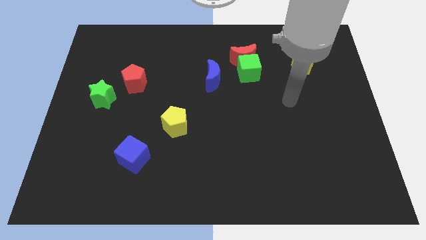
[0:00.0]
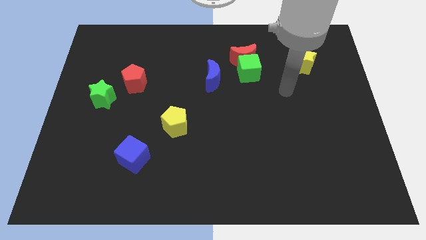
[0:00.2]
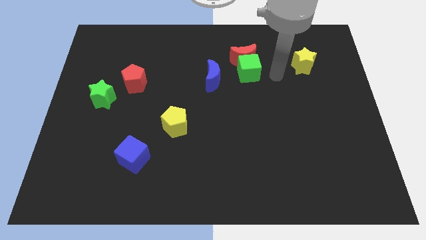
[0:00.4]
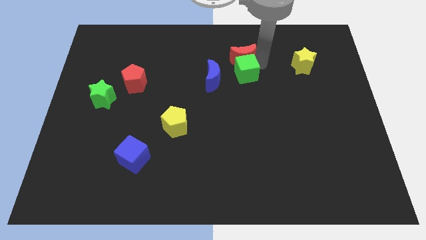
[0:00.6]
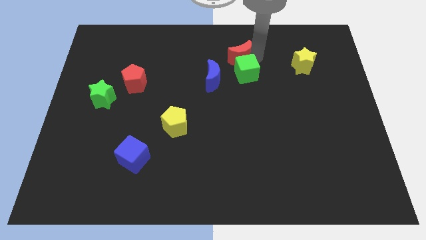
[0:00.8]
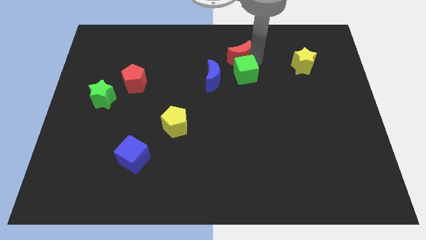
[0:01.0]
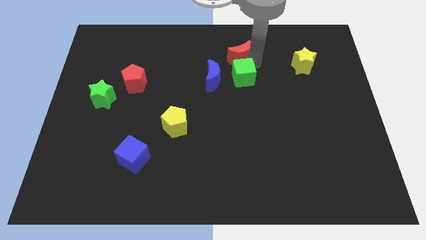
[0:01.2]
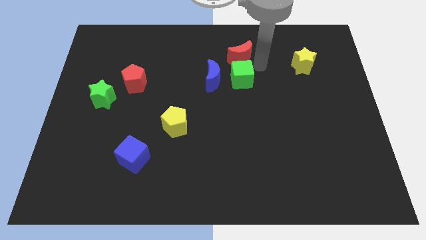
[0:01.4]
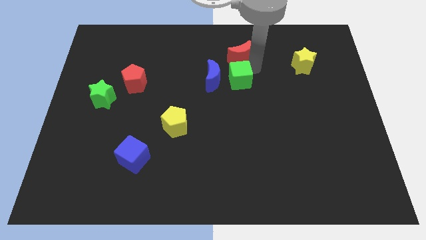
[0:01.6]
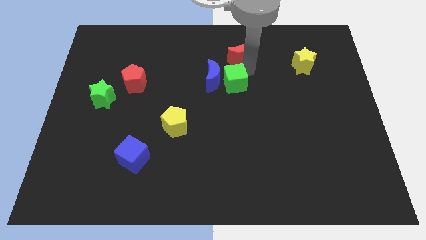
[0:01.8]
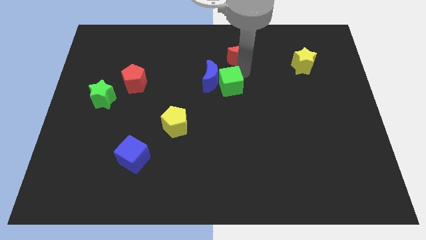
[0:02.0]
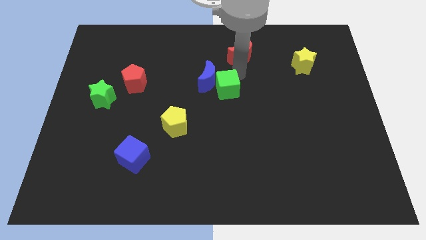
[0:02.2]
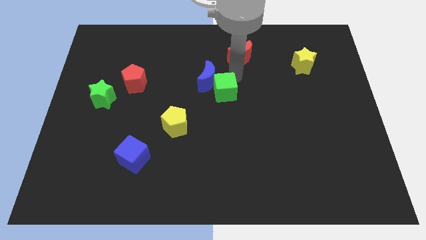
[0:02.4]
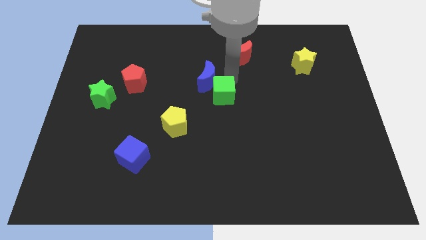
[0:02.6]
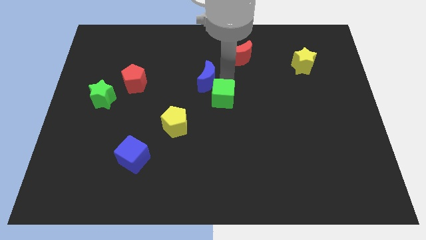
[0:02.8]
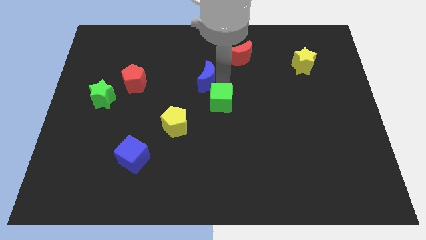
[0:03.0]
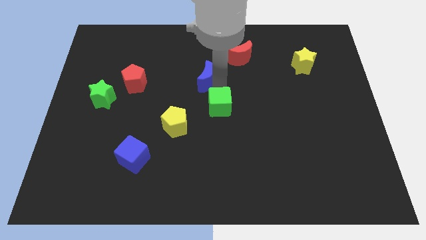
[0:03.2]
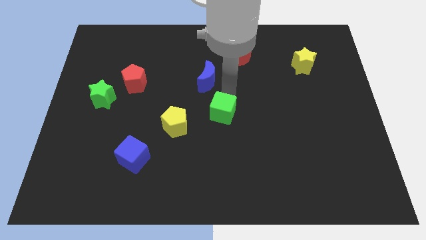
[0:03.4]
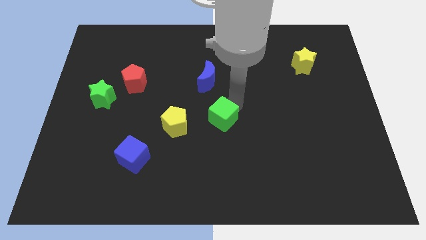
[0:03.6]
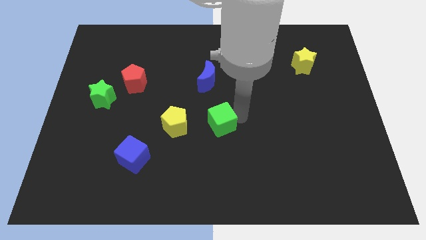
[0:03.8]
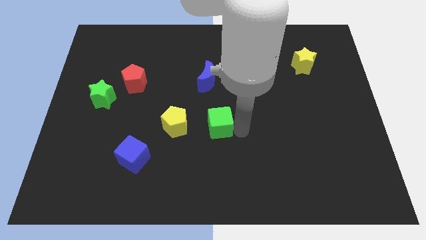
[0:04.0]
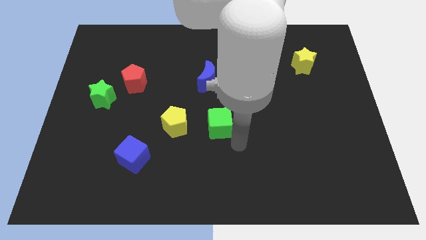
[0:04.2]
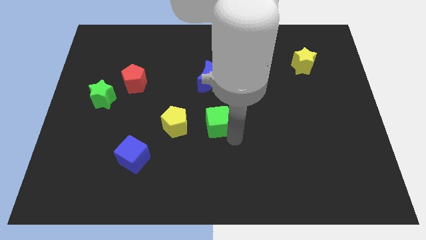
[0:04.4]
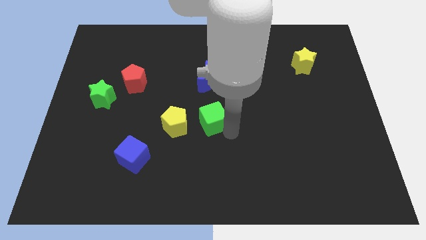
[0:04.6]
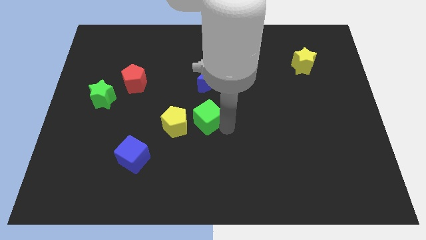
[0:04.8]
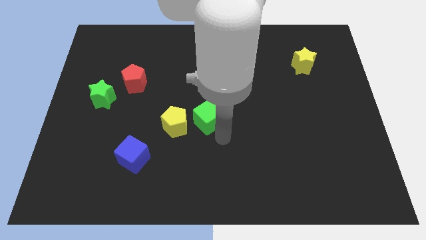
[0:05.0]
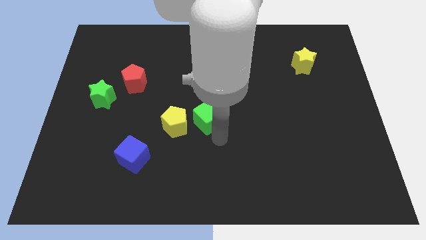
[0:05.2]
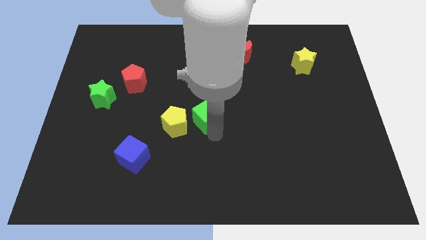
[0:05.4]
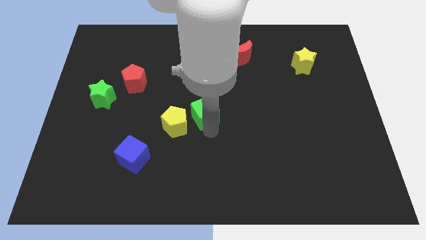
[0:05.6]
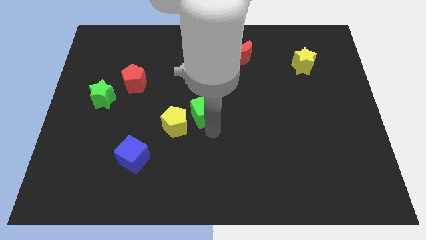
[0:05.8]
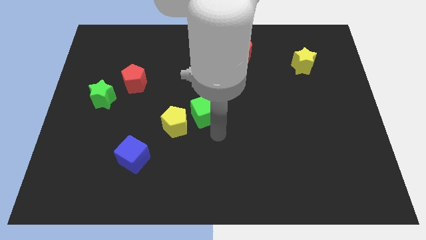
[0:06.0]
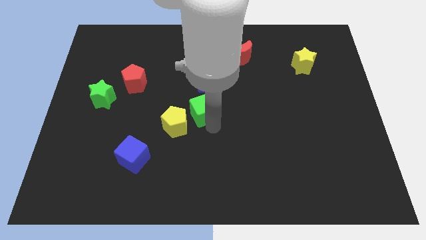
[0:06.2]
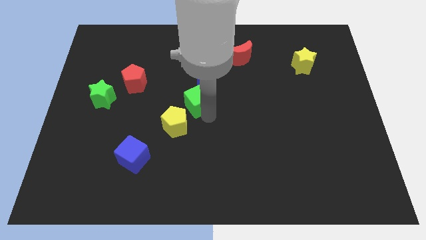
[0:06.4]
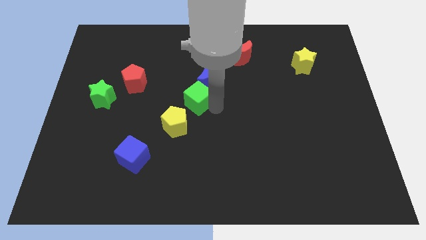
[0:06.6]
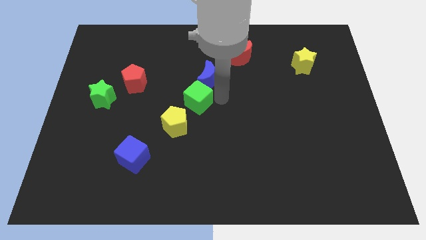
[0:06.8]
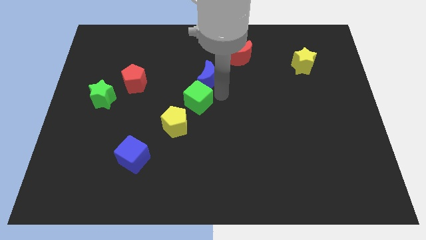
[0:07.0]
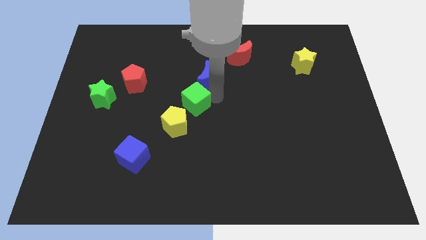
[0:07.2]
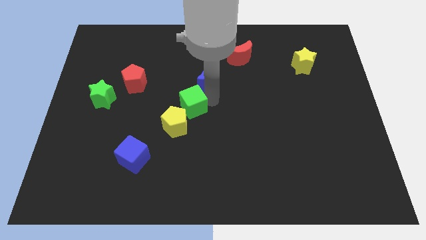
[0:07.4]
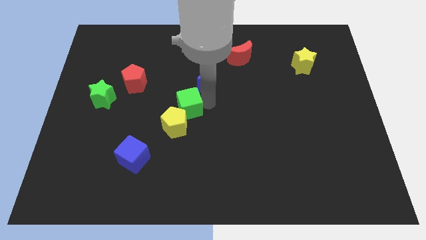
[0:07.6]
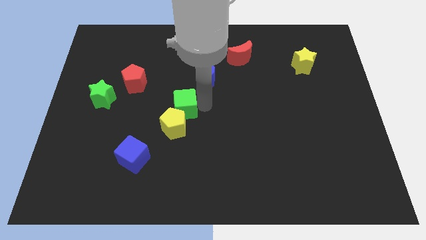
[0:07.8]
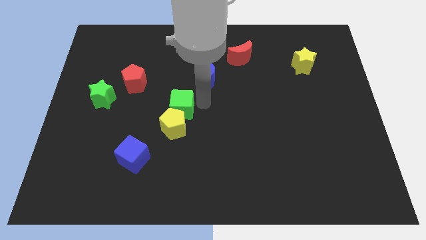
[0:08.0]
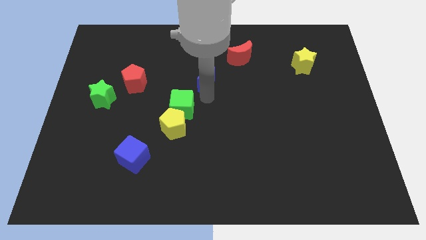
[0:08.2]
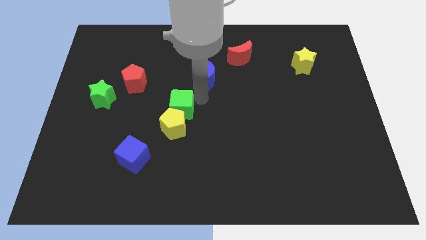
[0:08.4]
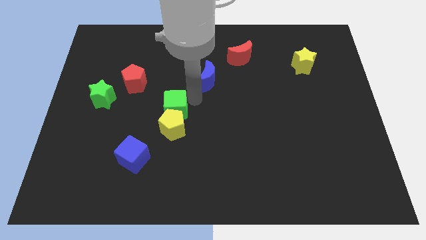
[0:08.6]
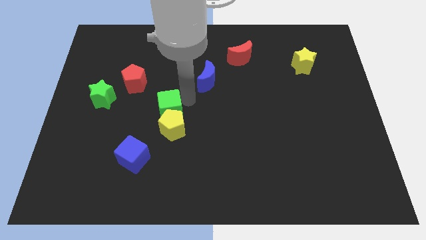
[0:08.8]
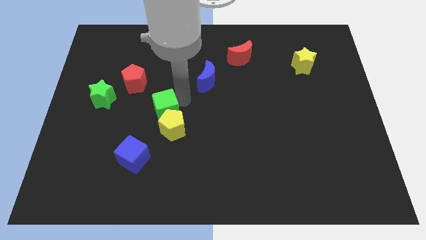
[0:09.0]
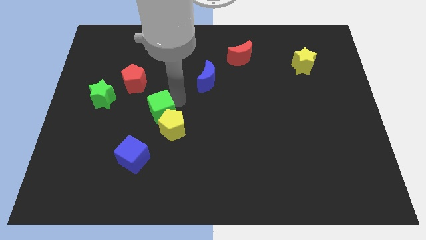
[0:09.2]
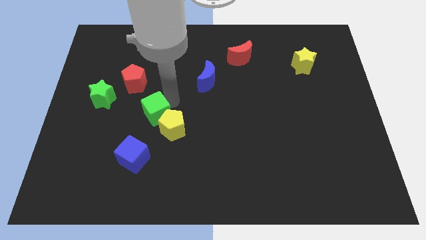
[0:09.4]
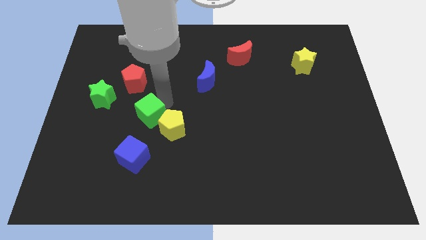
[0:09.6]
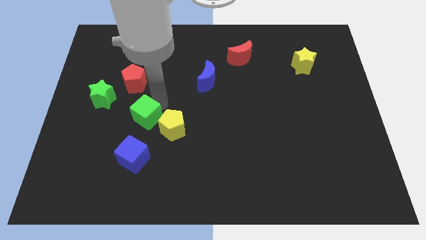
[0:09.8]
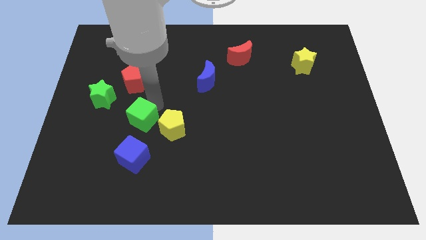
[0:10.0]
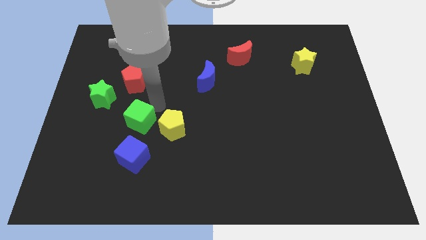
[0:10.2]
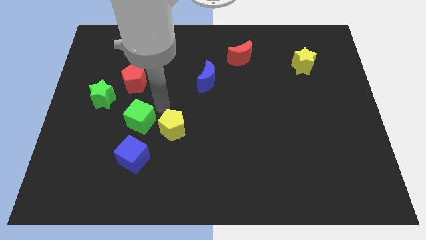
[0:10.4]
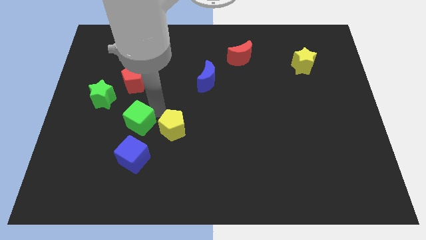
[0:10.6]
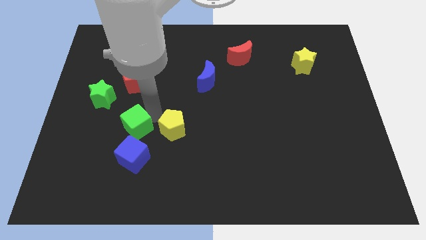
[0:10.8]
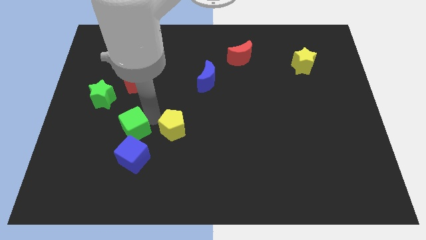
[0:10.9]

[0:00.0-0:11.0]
push the green cube to the top left side of the blue cube

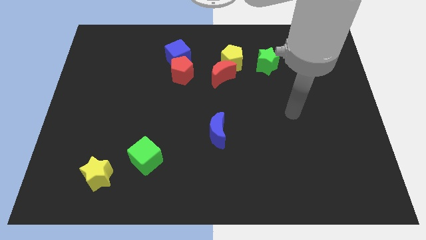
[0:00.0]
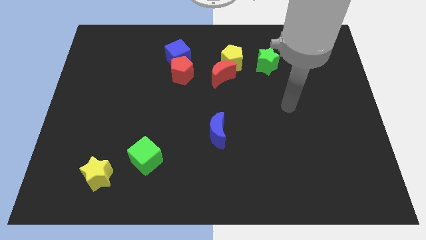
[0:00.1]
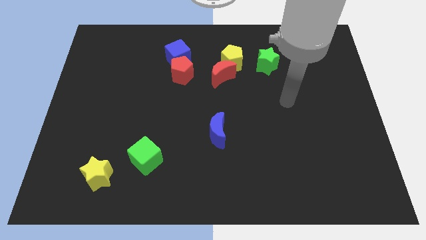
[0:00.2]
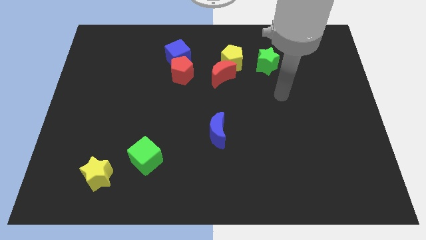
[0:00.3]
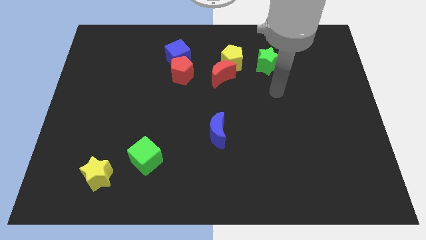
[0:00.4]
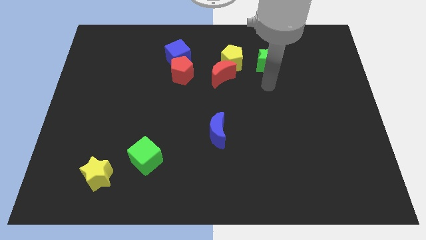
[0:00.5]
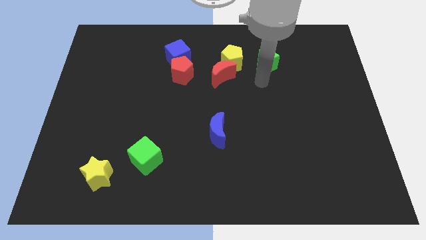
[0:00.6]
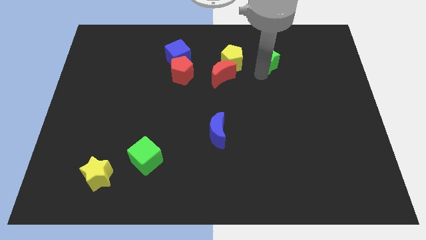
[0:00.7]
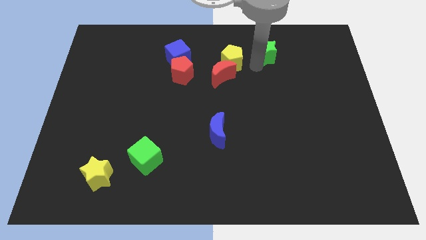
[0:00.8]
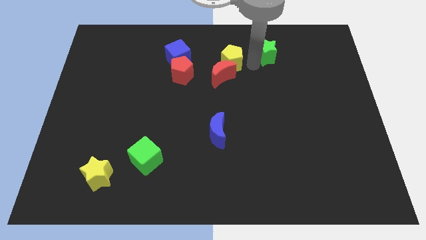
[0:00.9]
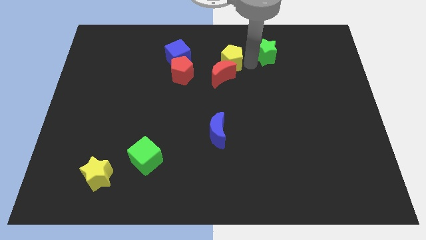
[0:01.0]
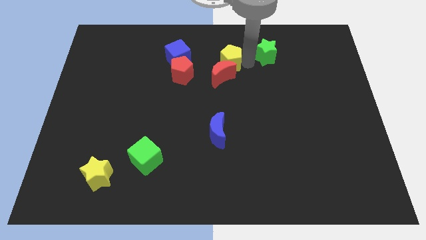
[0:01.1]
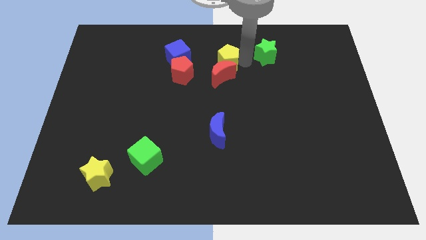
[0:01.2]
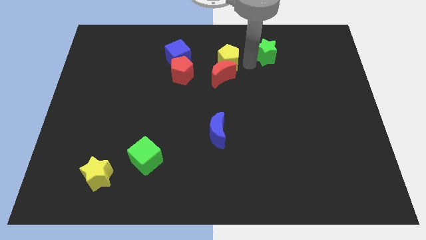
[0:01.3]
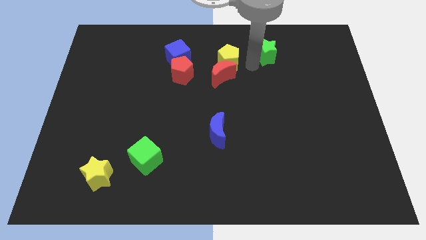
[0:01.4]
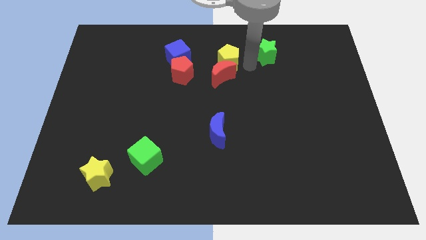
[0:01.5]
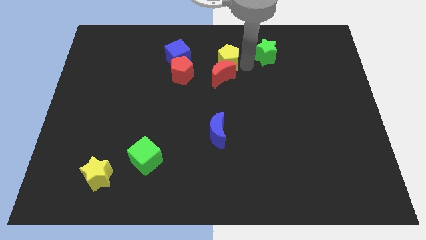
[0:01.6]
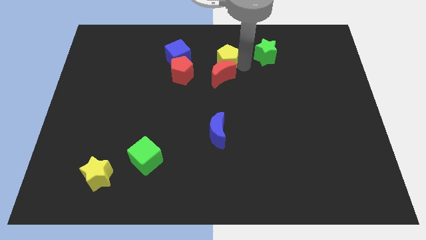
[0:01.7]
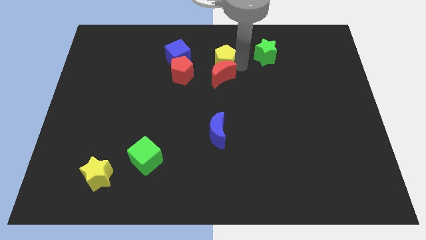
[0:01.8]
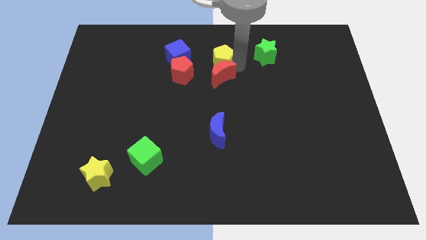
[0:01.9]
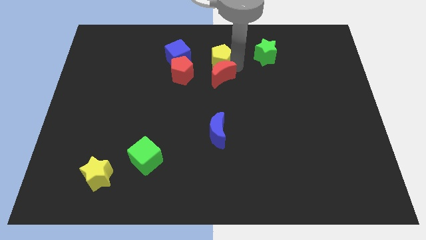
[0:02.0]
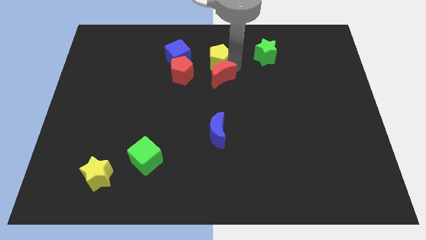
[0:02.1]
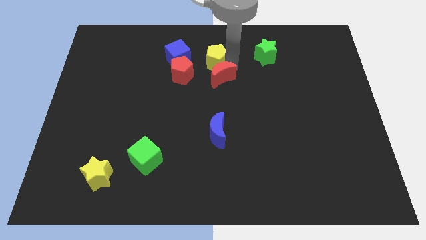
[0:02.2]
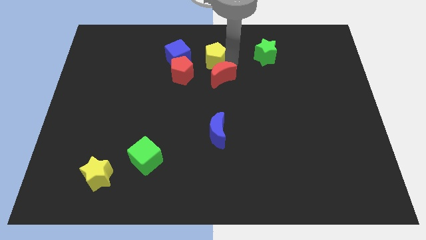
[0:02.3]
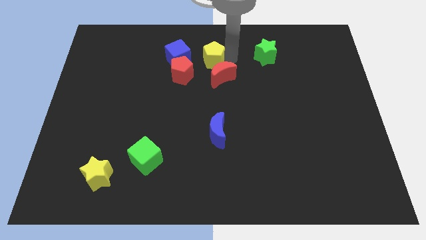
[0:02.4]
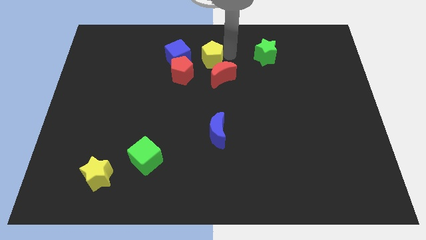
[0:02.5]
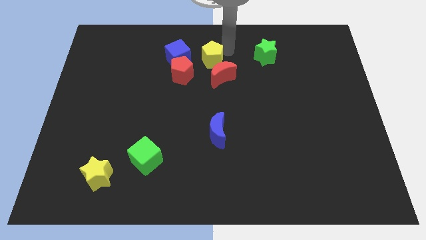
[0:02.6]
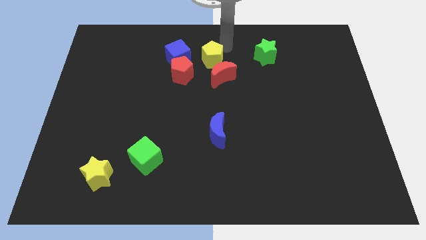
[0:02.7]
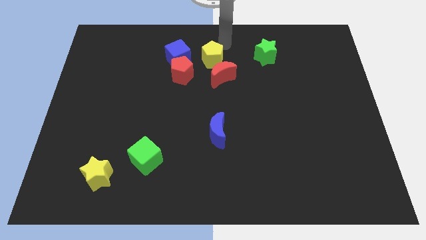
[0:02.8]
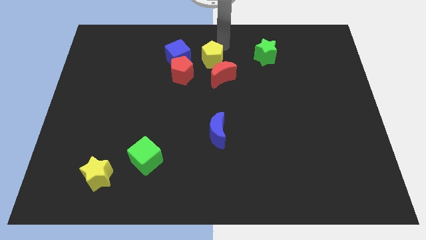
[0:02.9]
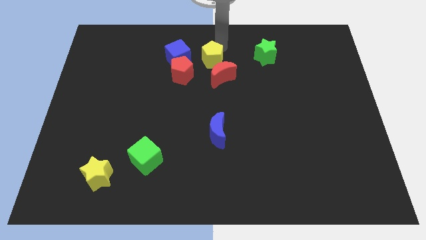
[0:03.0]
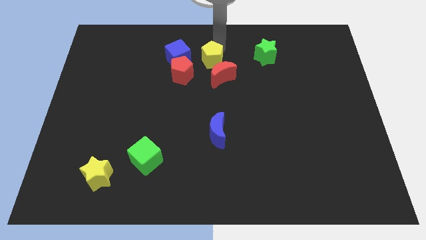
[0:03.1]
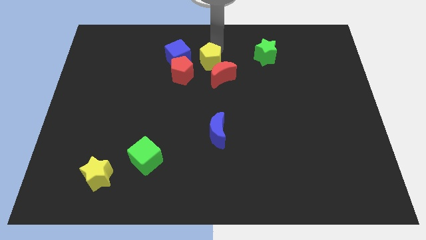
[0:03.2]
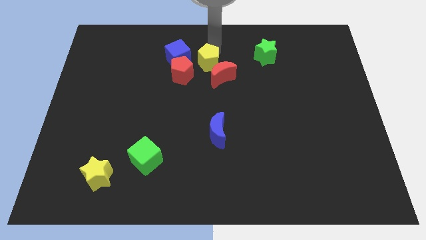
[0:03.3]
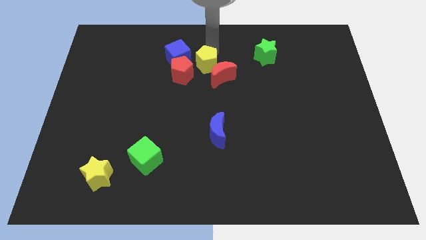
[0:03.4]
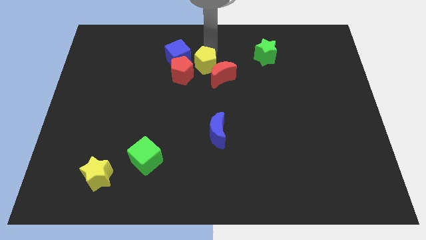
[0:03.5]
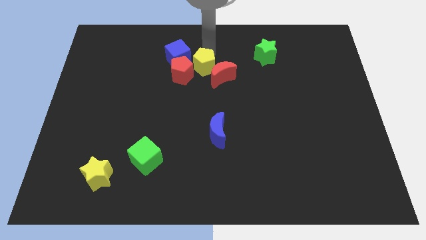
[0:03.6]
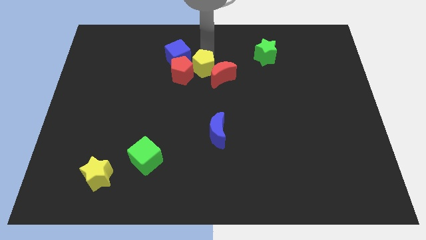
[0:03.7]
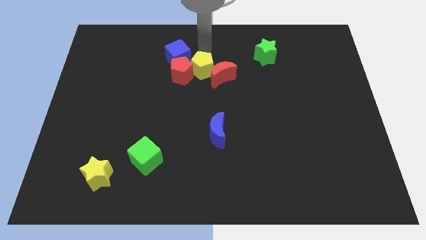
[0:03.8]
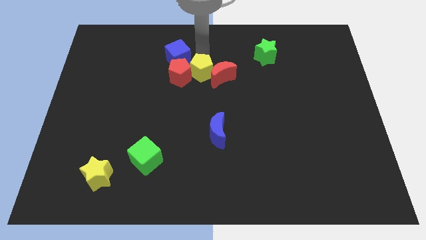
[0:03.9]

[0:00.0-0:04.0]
push the yellow pentagon diagonally down and to the left of the red moon
